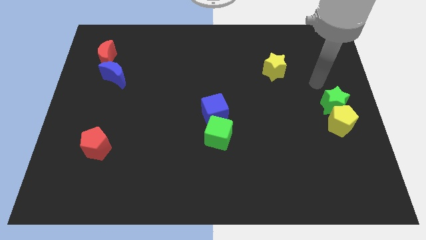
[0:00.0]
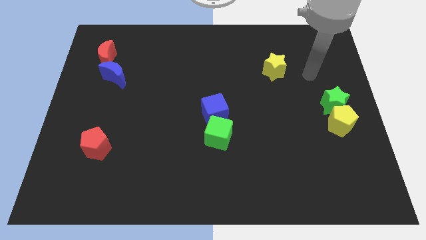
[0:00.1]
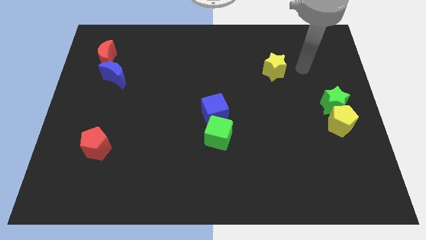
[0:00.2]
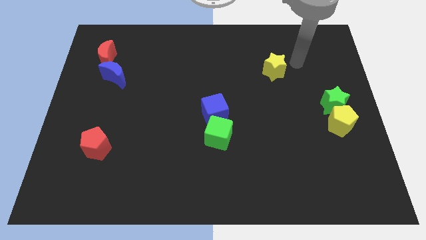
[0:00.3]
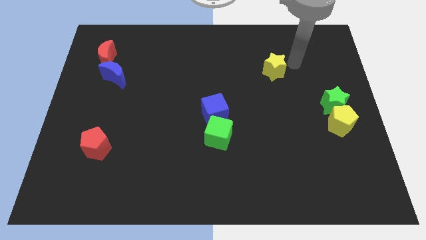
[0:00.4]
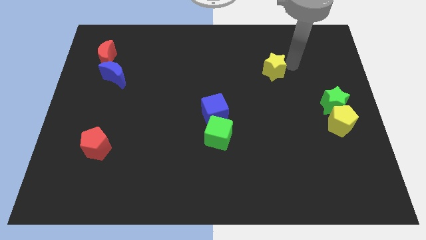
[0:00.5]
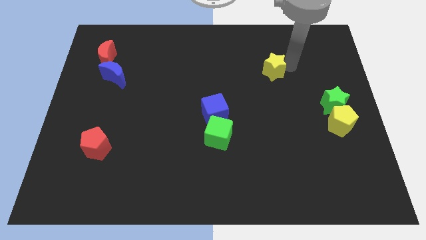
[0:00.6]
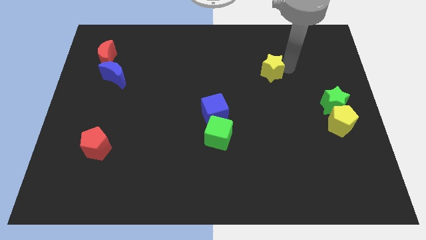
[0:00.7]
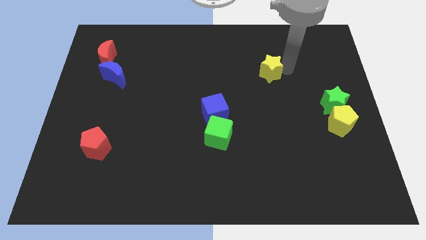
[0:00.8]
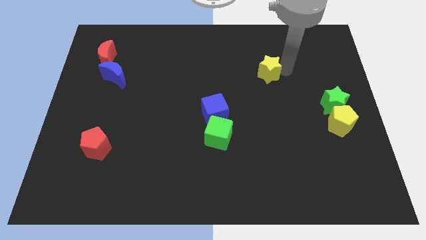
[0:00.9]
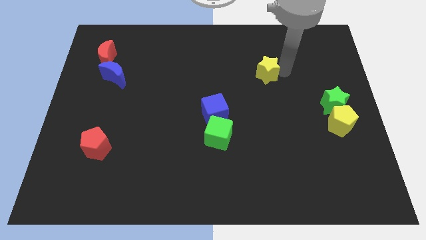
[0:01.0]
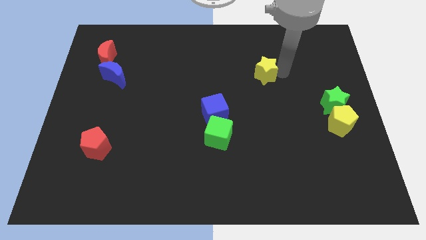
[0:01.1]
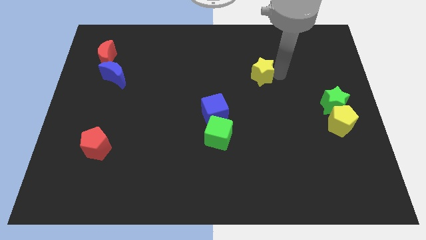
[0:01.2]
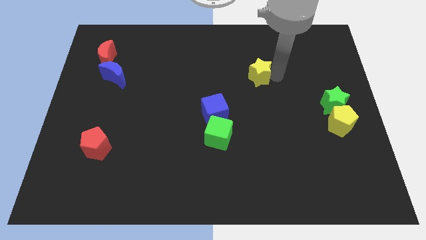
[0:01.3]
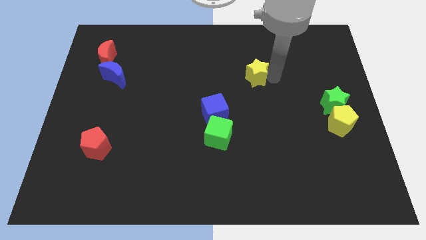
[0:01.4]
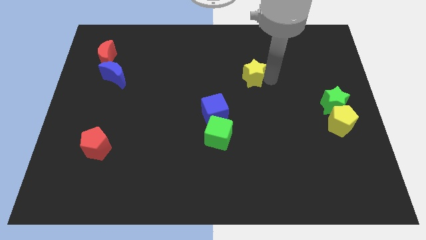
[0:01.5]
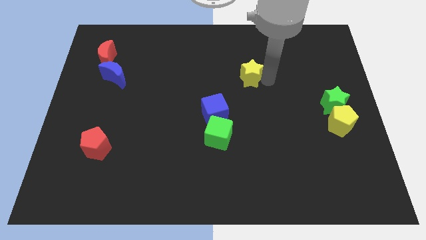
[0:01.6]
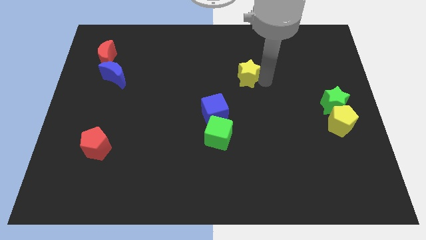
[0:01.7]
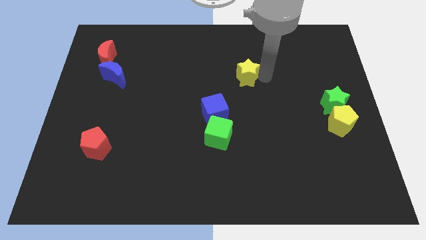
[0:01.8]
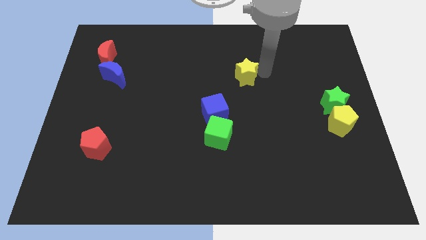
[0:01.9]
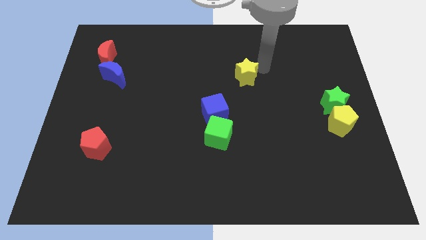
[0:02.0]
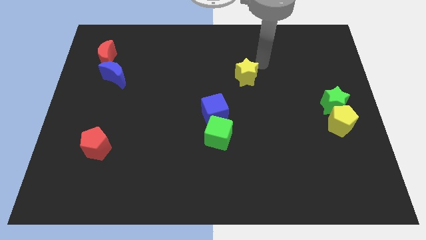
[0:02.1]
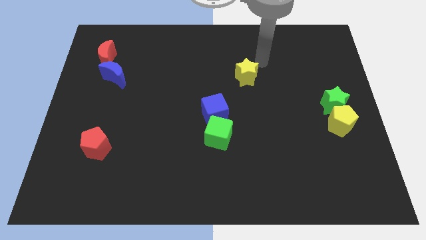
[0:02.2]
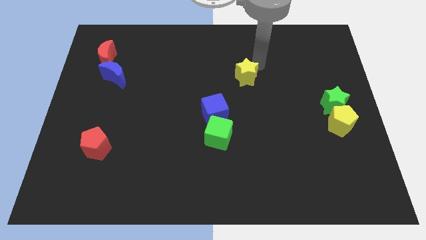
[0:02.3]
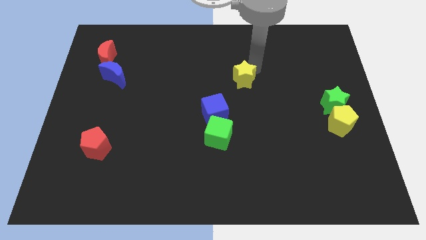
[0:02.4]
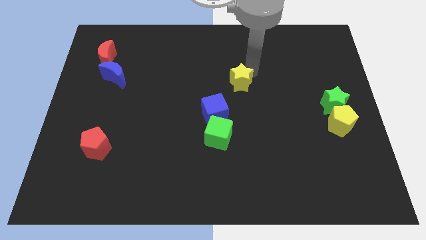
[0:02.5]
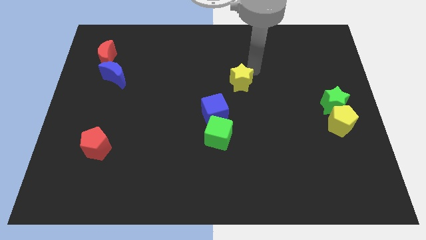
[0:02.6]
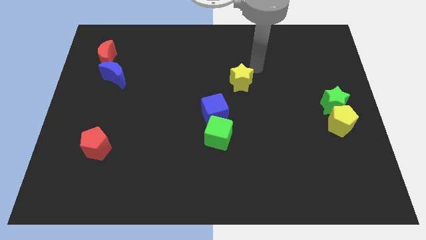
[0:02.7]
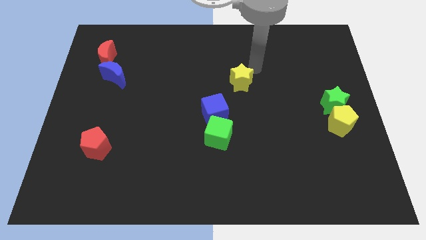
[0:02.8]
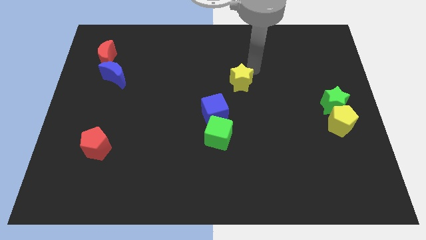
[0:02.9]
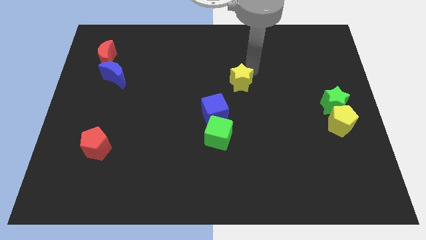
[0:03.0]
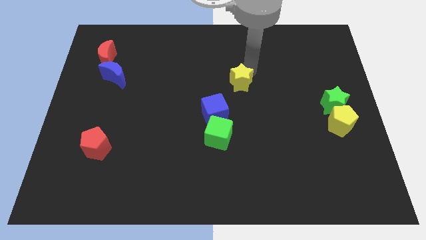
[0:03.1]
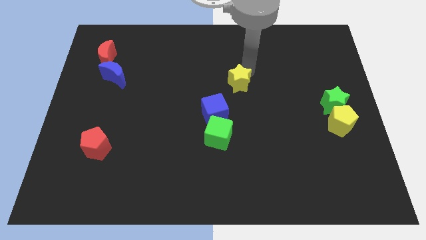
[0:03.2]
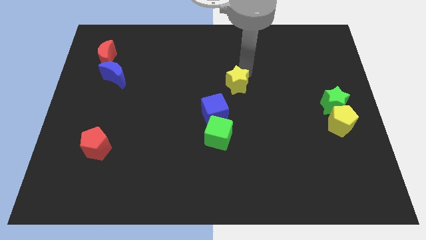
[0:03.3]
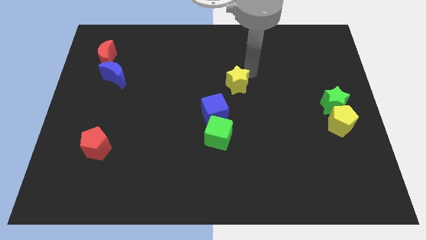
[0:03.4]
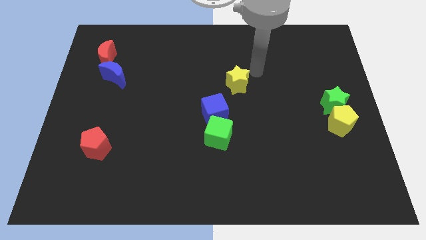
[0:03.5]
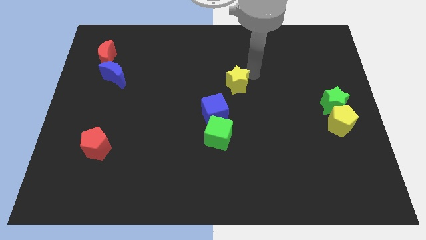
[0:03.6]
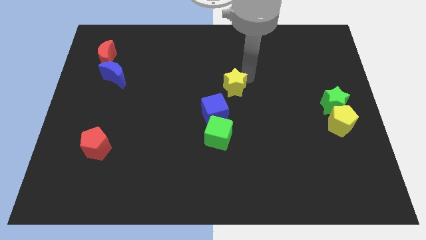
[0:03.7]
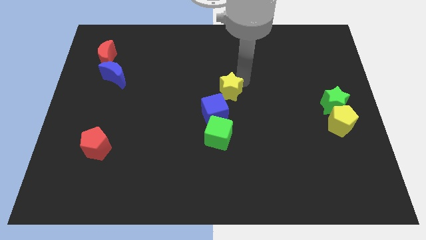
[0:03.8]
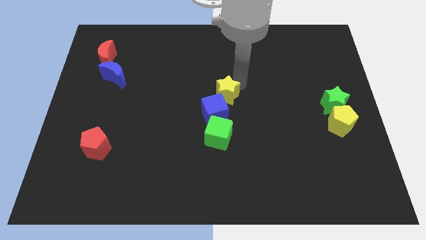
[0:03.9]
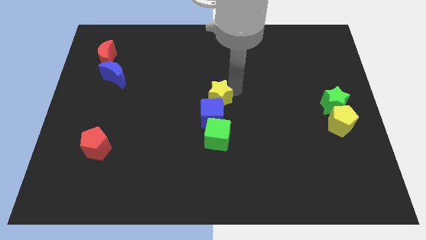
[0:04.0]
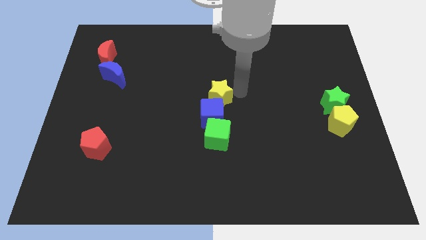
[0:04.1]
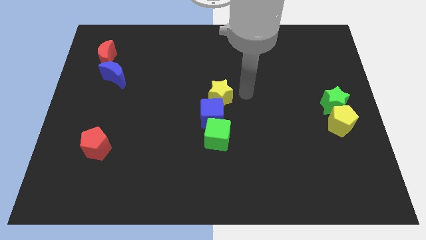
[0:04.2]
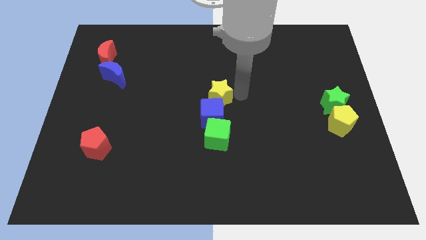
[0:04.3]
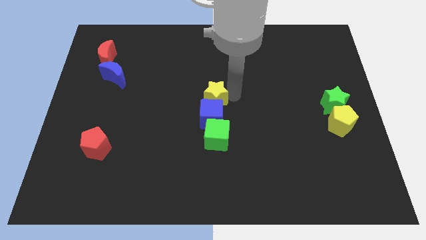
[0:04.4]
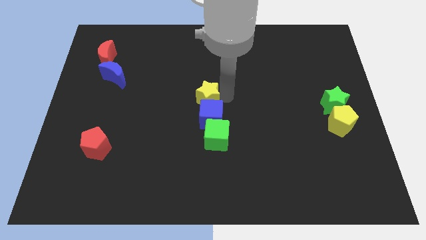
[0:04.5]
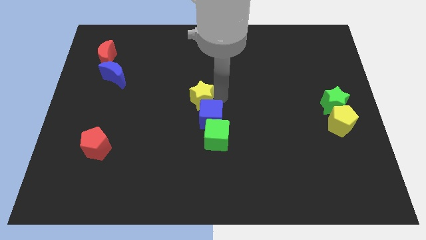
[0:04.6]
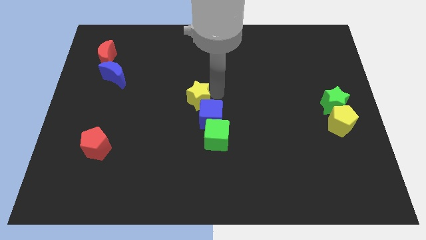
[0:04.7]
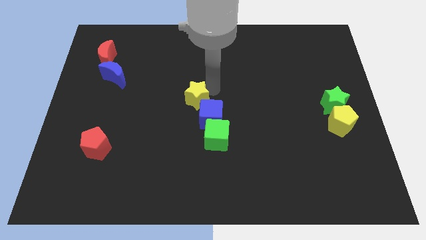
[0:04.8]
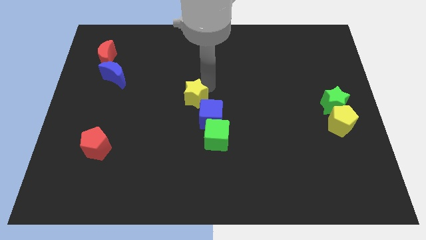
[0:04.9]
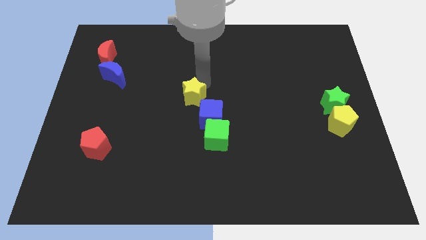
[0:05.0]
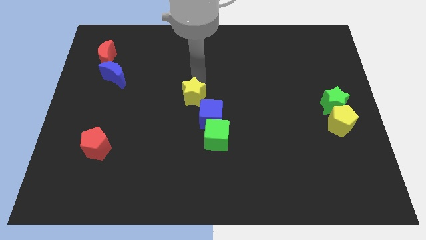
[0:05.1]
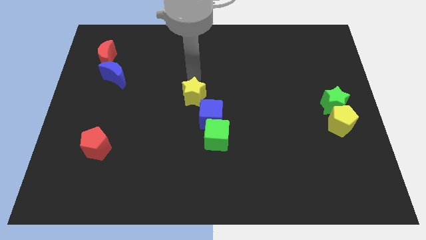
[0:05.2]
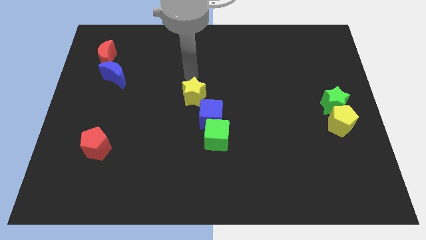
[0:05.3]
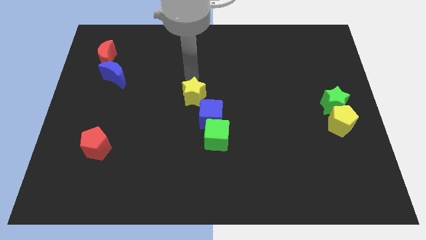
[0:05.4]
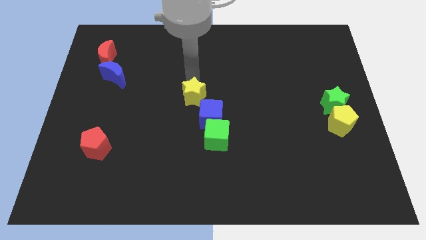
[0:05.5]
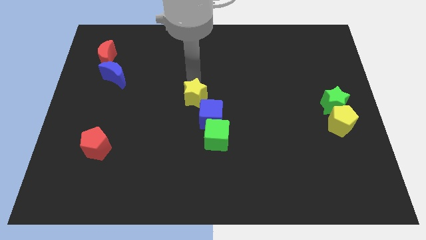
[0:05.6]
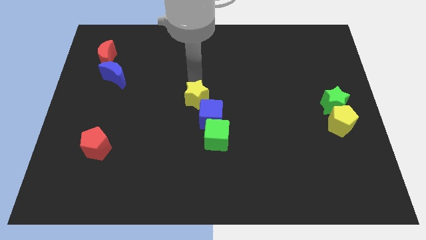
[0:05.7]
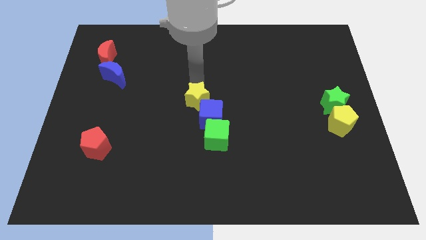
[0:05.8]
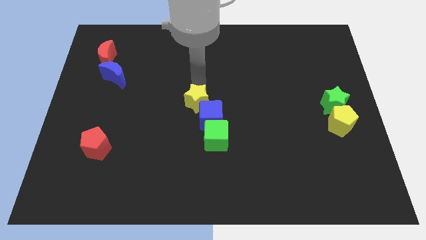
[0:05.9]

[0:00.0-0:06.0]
push the yellow star downwards and left

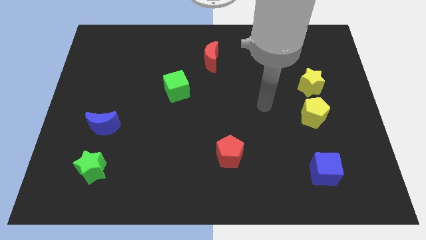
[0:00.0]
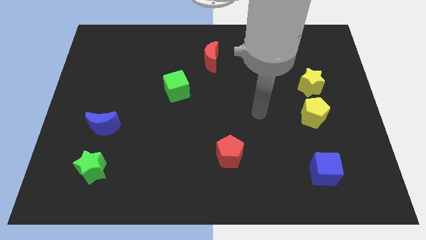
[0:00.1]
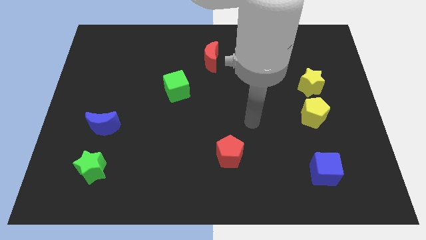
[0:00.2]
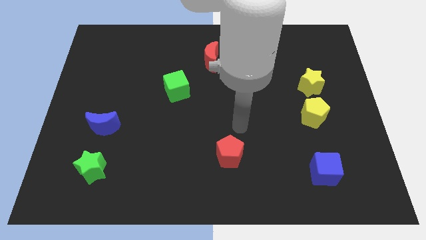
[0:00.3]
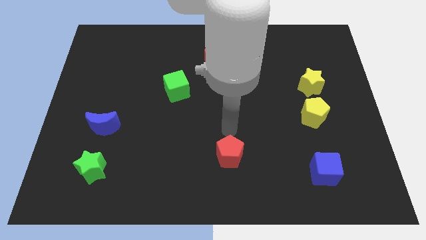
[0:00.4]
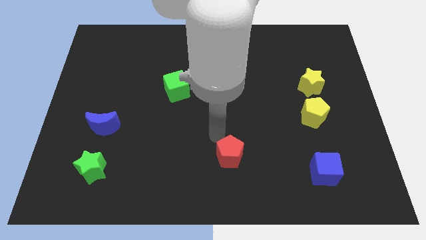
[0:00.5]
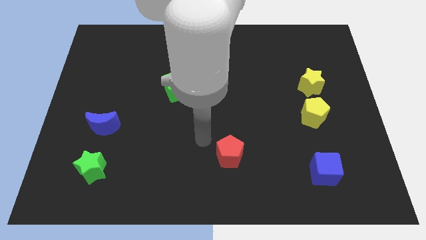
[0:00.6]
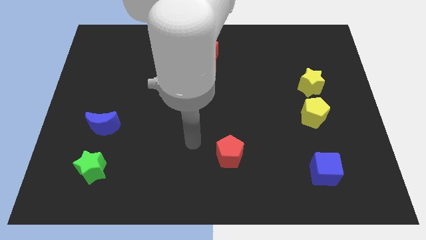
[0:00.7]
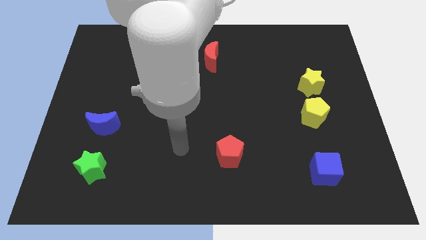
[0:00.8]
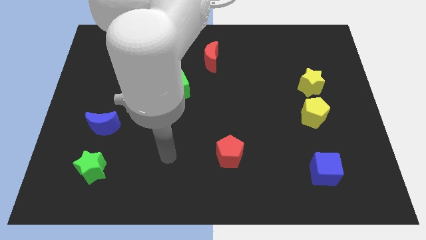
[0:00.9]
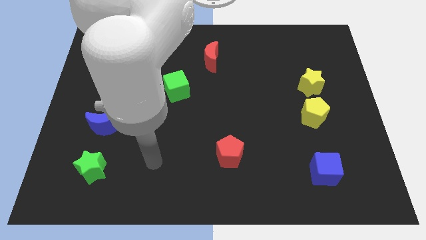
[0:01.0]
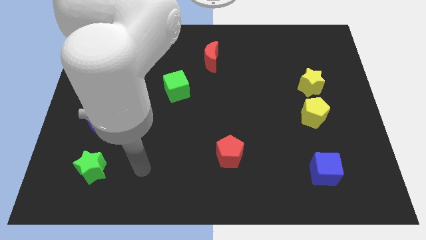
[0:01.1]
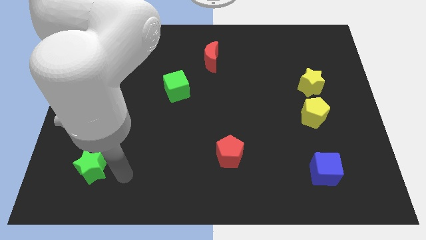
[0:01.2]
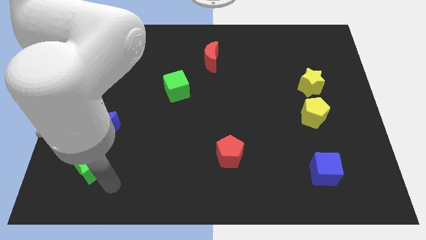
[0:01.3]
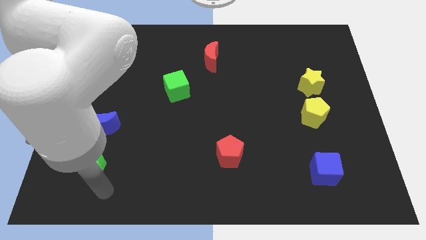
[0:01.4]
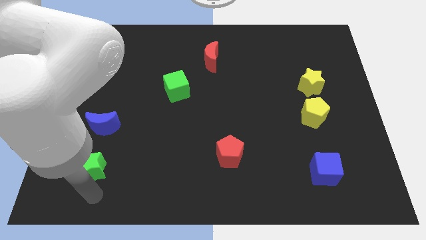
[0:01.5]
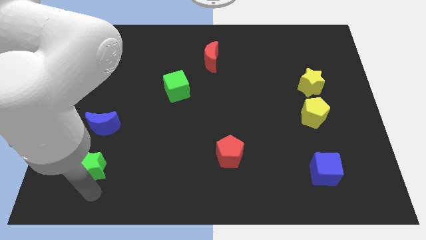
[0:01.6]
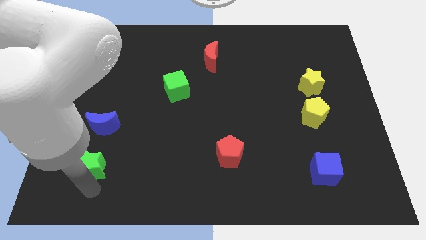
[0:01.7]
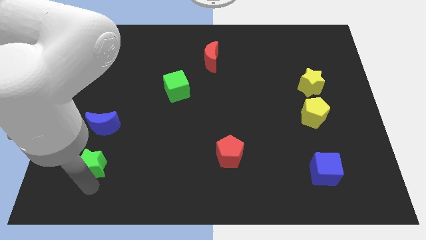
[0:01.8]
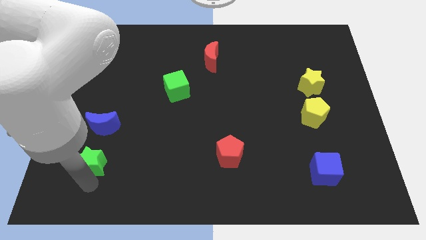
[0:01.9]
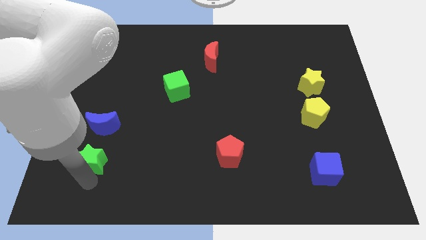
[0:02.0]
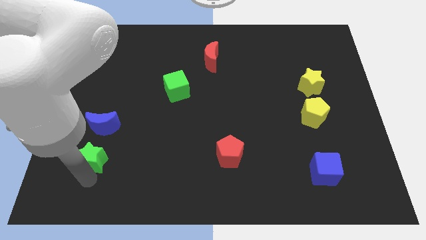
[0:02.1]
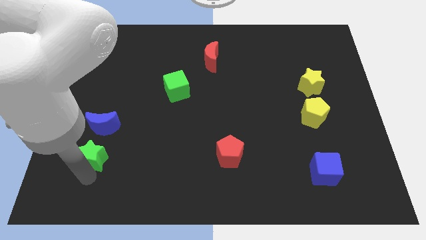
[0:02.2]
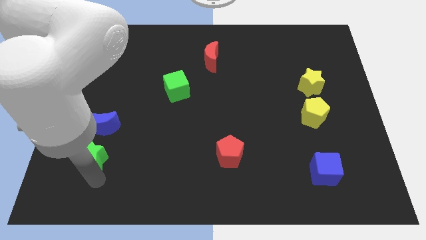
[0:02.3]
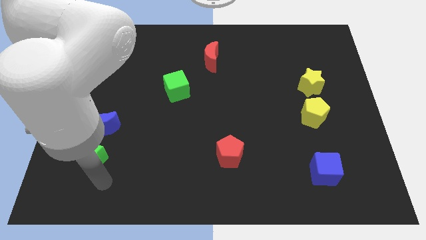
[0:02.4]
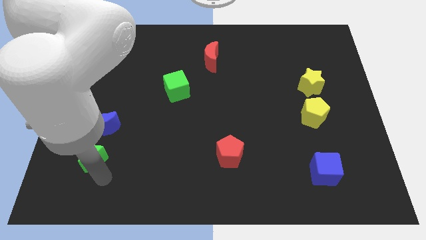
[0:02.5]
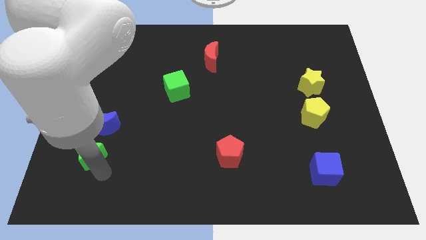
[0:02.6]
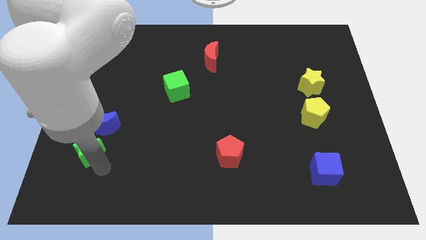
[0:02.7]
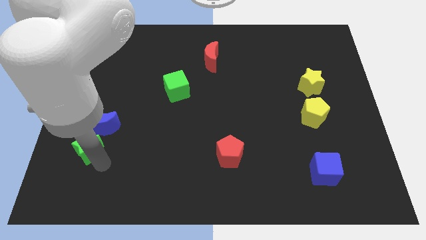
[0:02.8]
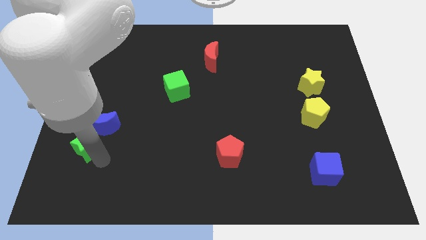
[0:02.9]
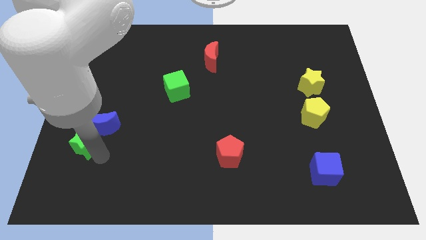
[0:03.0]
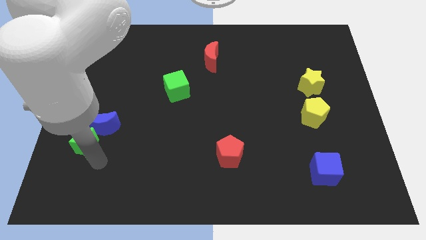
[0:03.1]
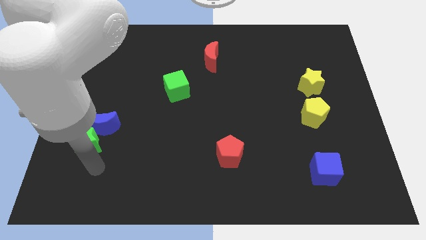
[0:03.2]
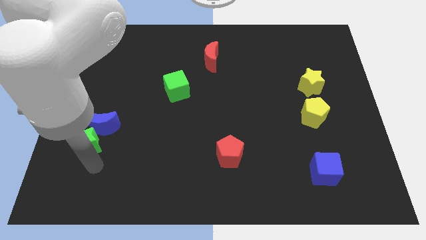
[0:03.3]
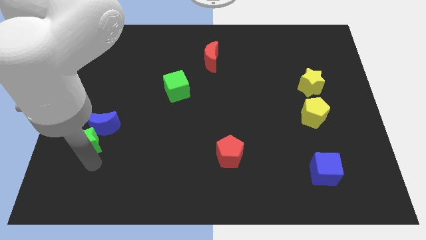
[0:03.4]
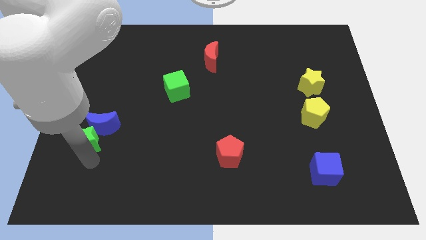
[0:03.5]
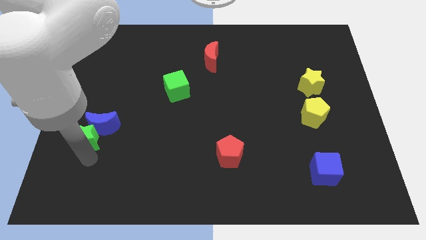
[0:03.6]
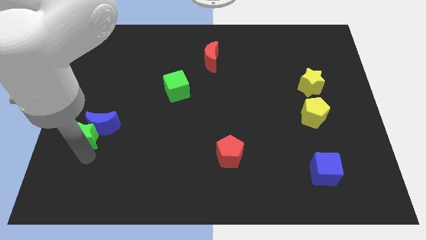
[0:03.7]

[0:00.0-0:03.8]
slightly slide the green star up
